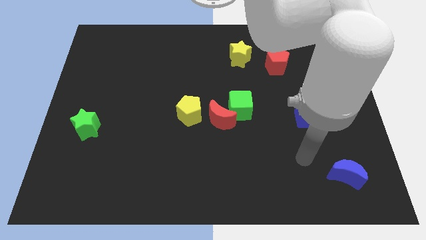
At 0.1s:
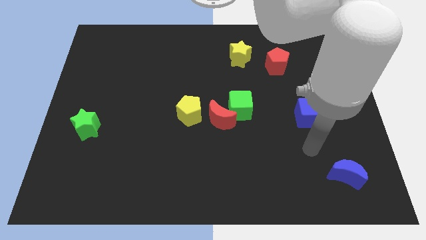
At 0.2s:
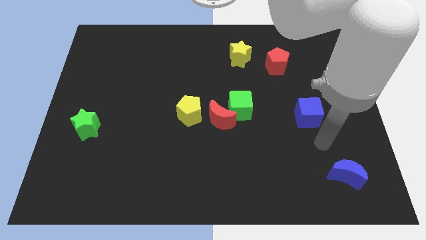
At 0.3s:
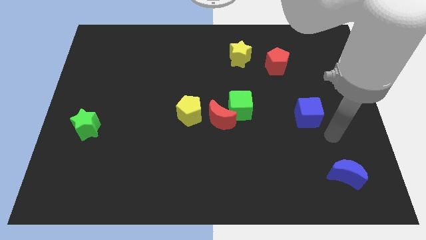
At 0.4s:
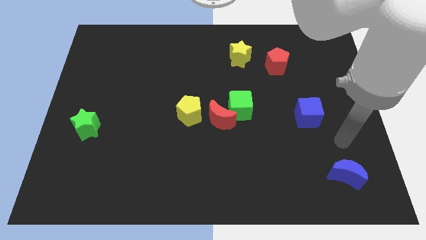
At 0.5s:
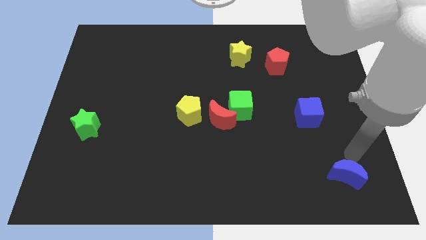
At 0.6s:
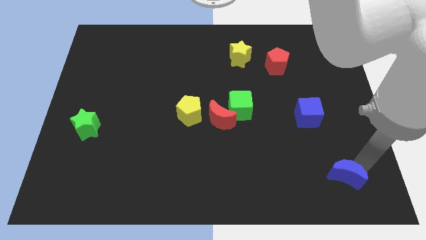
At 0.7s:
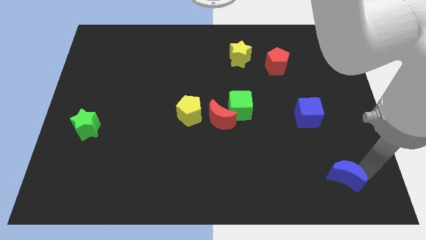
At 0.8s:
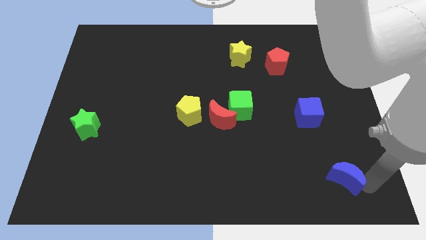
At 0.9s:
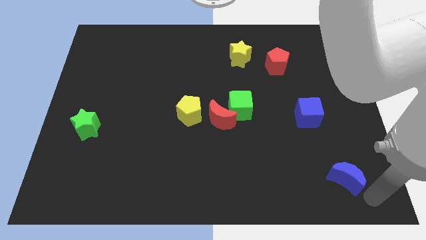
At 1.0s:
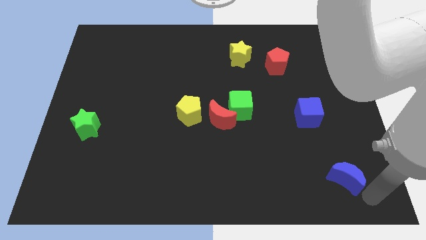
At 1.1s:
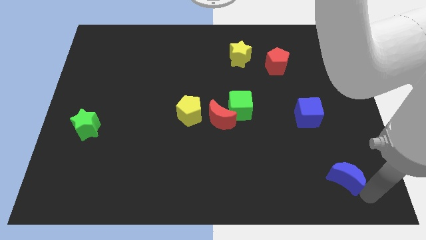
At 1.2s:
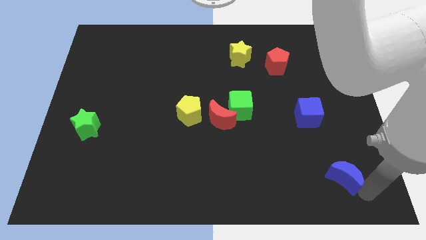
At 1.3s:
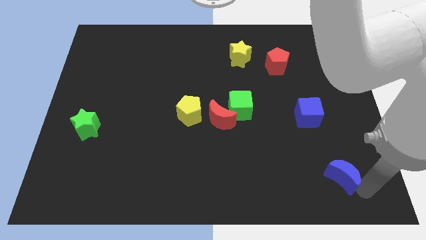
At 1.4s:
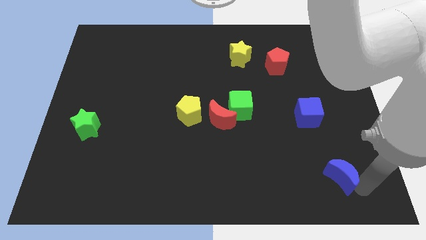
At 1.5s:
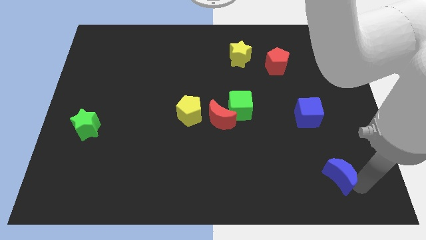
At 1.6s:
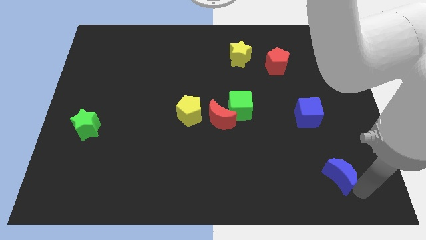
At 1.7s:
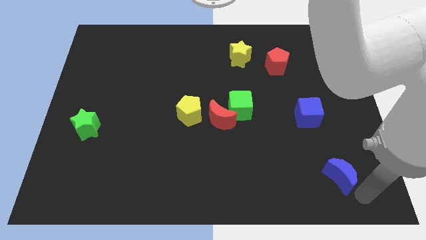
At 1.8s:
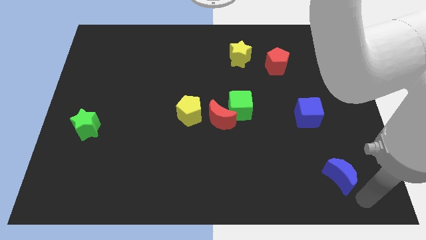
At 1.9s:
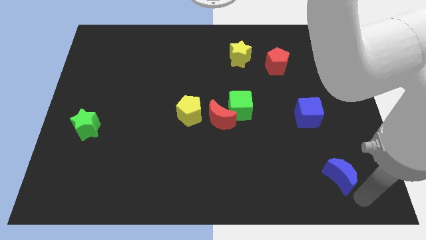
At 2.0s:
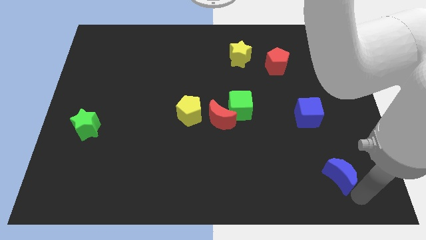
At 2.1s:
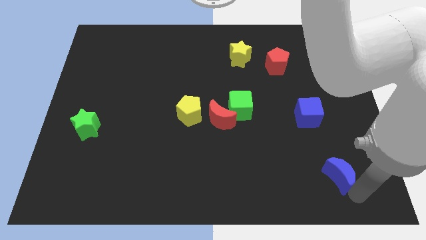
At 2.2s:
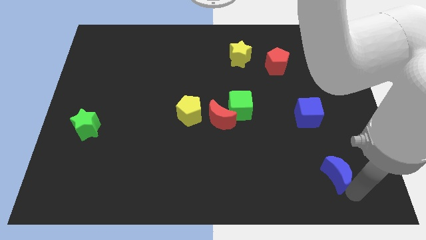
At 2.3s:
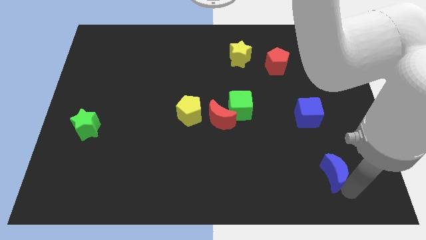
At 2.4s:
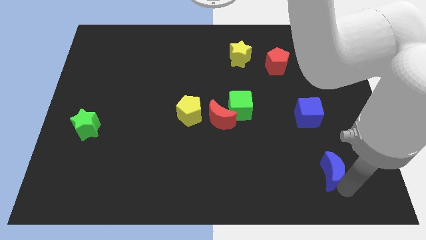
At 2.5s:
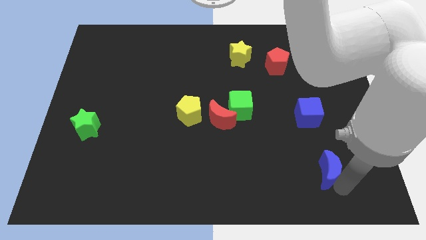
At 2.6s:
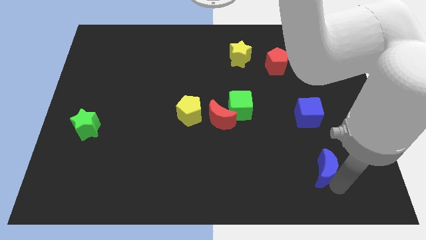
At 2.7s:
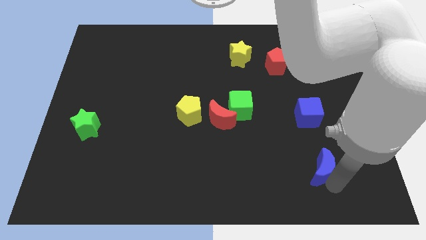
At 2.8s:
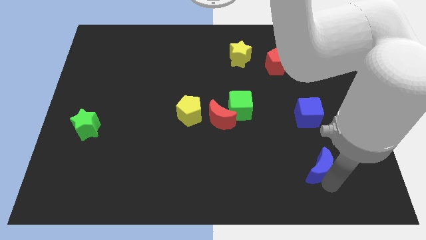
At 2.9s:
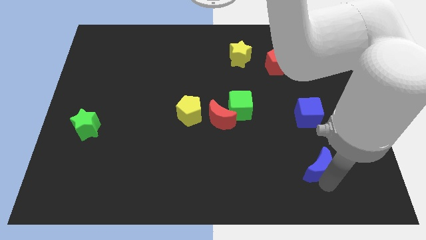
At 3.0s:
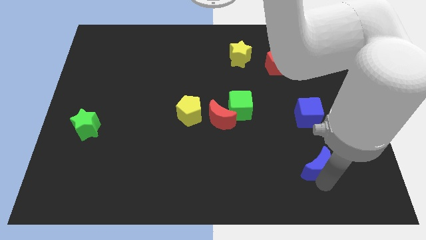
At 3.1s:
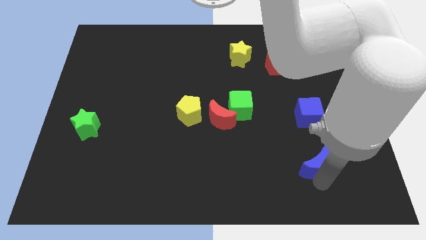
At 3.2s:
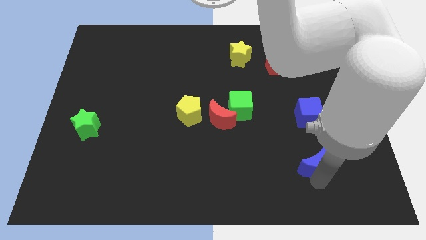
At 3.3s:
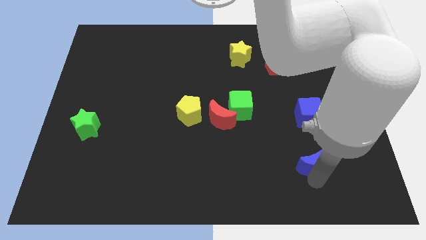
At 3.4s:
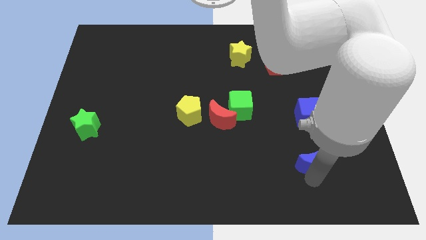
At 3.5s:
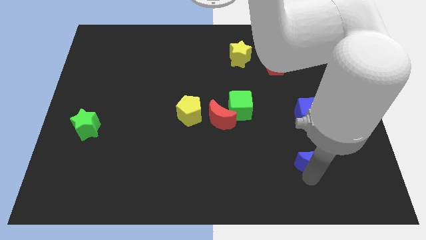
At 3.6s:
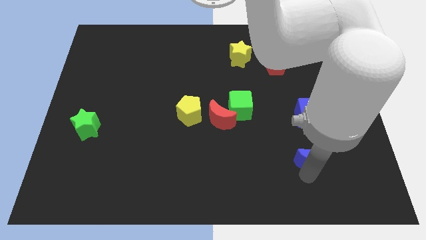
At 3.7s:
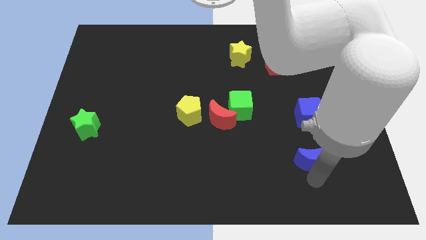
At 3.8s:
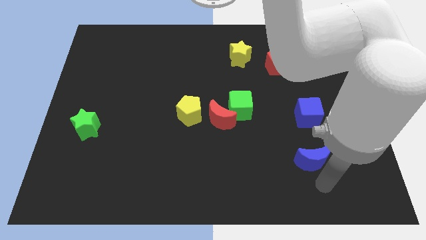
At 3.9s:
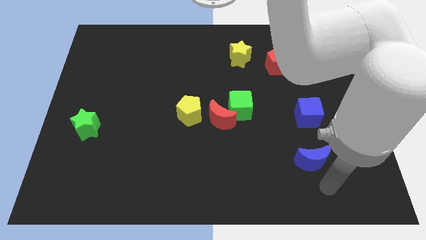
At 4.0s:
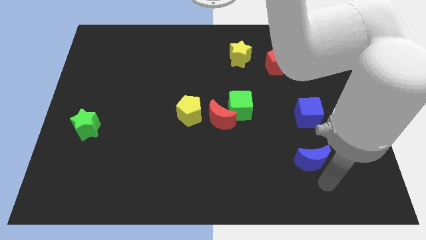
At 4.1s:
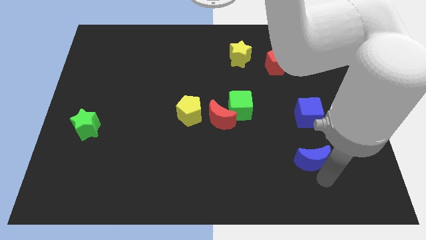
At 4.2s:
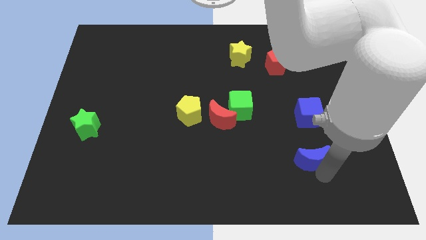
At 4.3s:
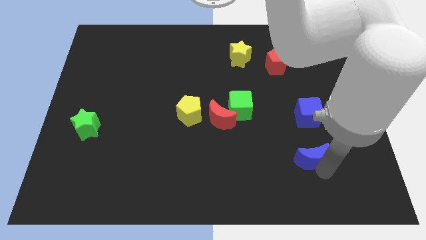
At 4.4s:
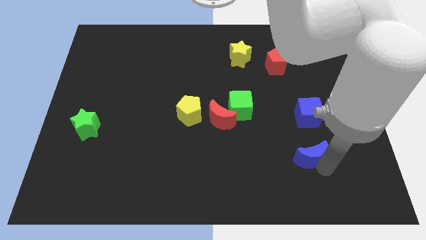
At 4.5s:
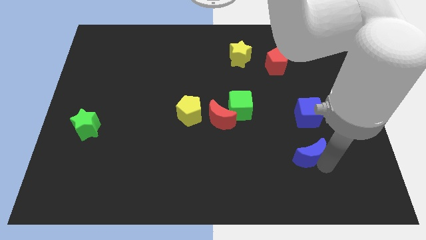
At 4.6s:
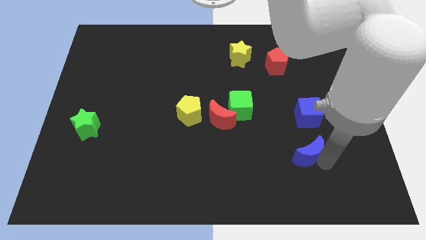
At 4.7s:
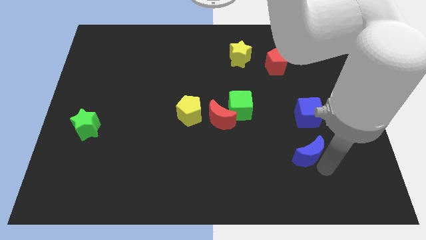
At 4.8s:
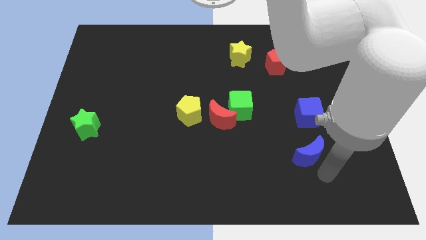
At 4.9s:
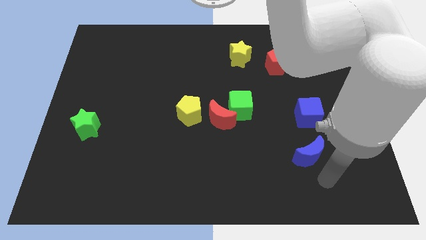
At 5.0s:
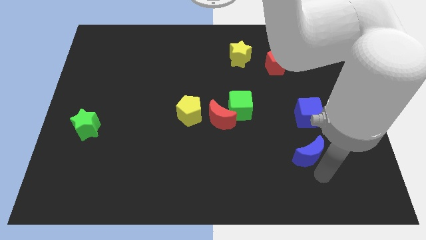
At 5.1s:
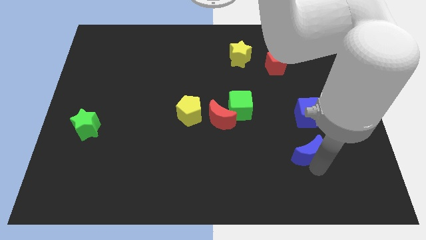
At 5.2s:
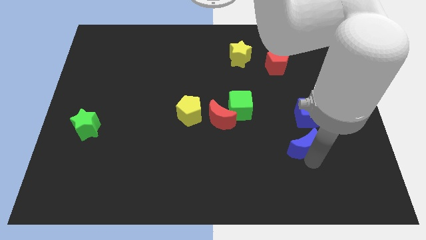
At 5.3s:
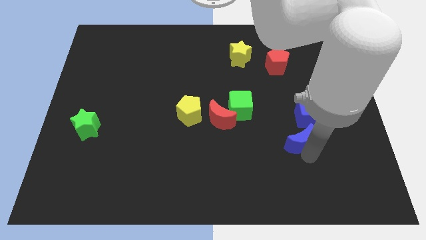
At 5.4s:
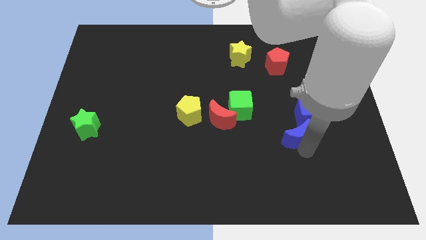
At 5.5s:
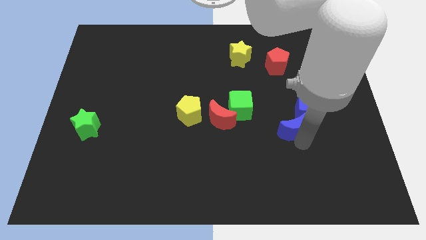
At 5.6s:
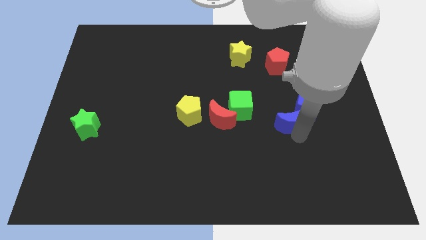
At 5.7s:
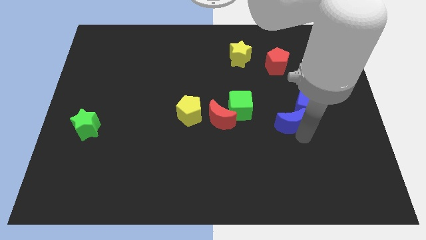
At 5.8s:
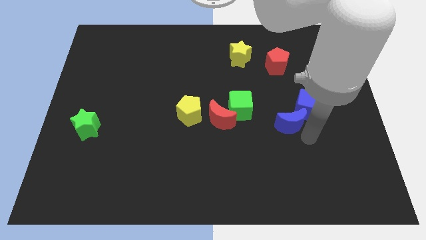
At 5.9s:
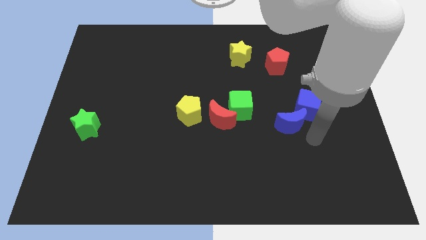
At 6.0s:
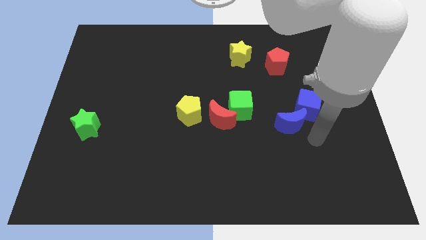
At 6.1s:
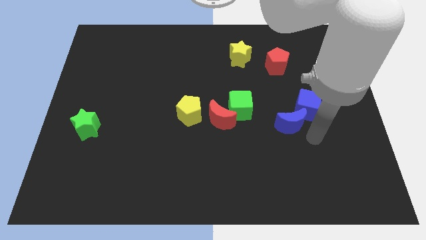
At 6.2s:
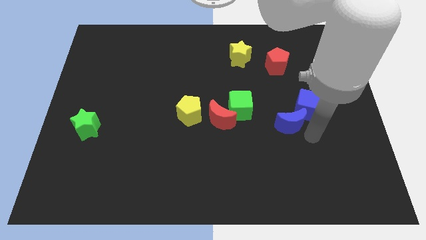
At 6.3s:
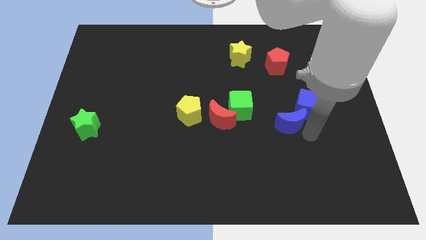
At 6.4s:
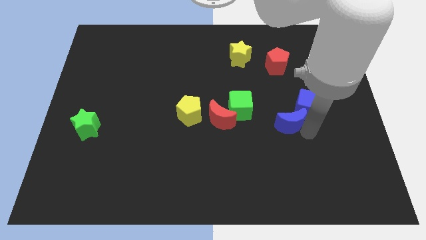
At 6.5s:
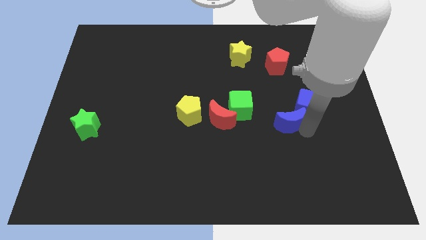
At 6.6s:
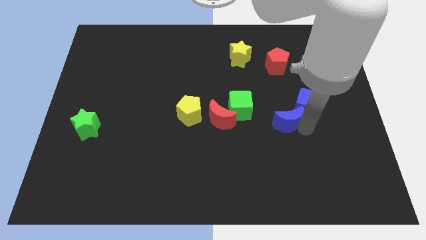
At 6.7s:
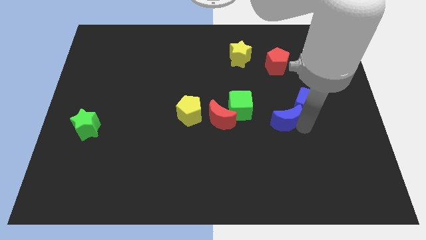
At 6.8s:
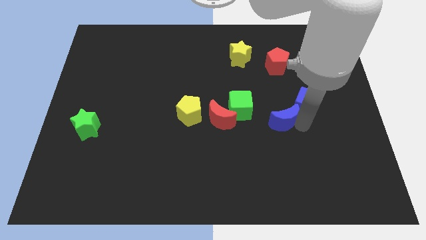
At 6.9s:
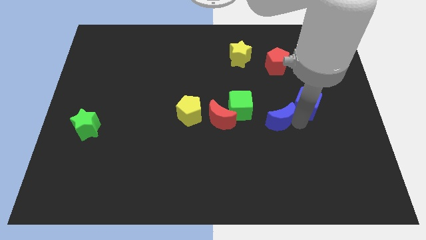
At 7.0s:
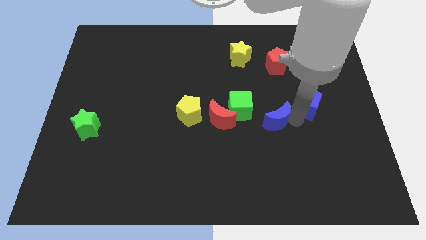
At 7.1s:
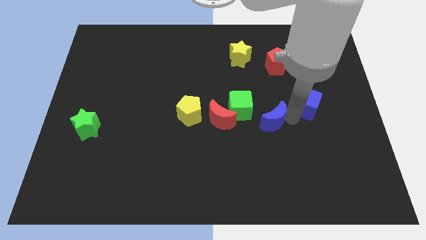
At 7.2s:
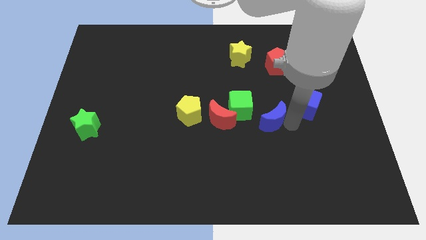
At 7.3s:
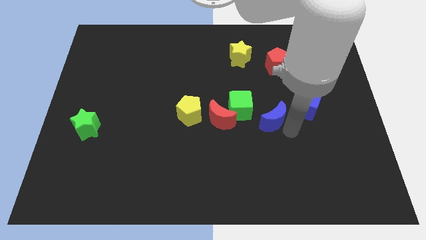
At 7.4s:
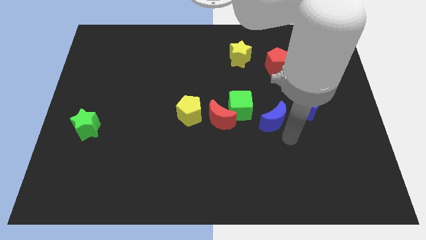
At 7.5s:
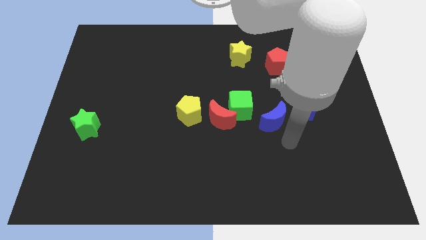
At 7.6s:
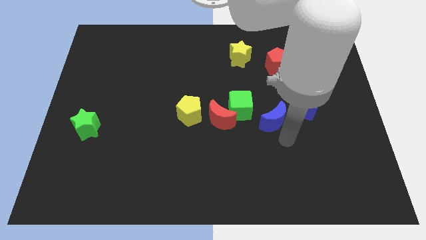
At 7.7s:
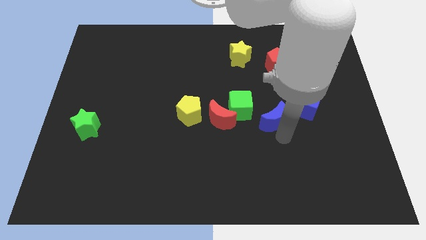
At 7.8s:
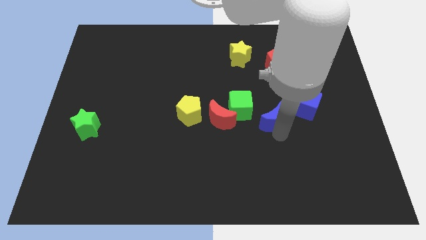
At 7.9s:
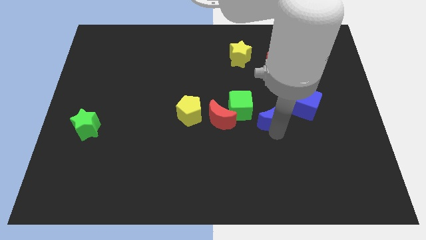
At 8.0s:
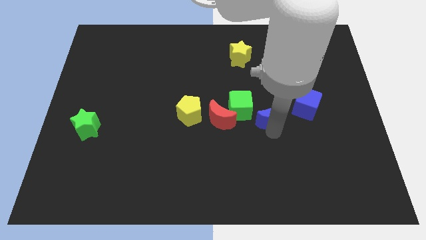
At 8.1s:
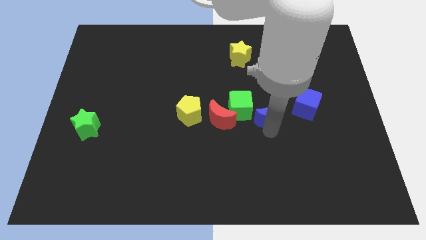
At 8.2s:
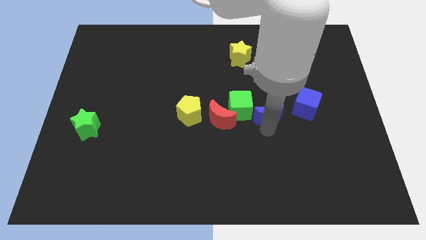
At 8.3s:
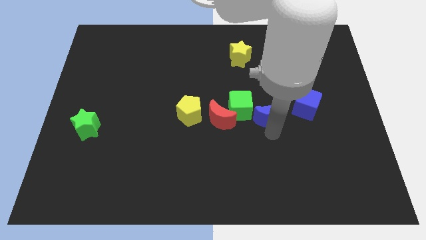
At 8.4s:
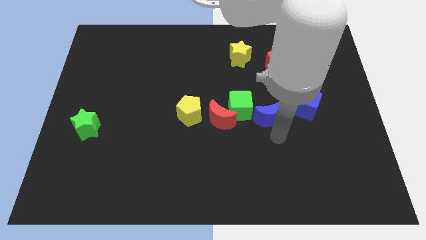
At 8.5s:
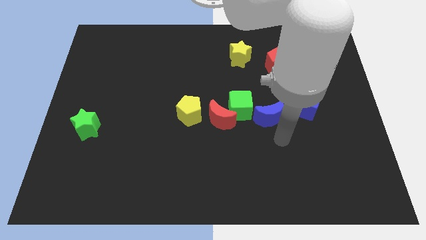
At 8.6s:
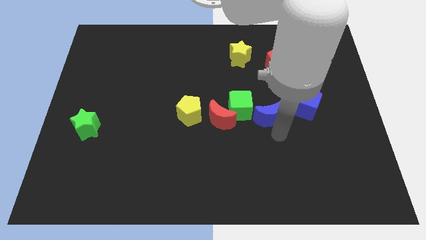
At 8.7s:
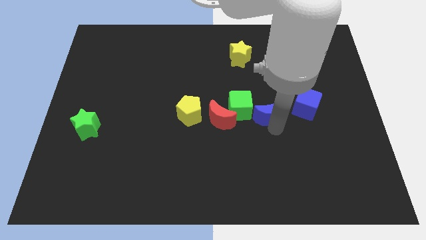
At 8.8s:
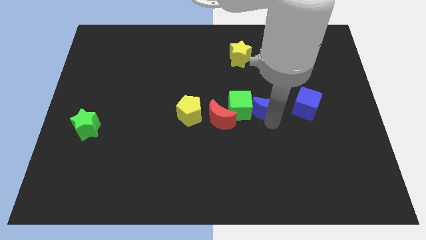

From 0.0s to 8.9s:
push the blue moon to the center of the board
